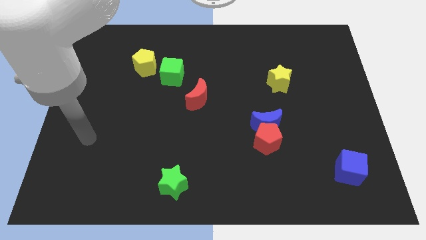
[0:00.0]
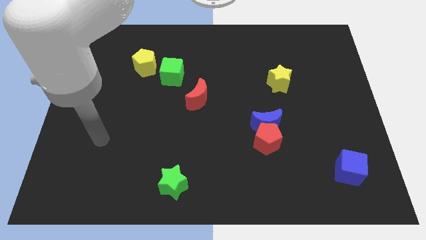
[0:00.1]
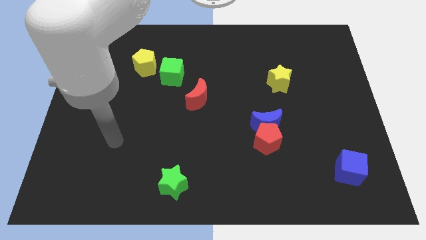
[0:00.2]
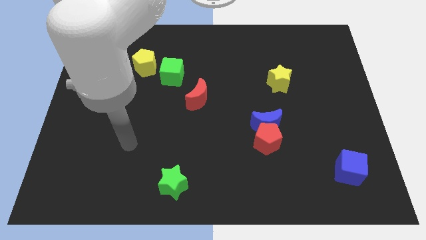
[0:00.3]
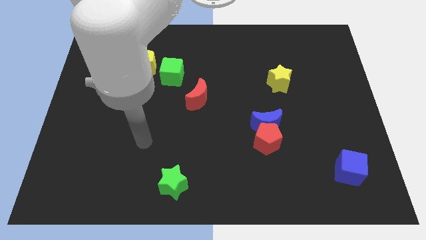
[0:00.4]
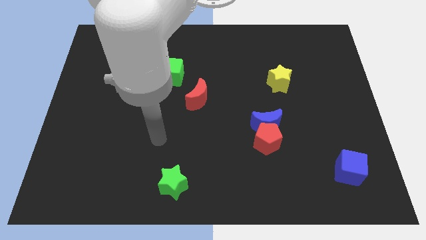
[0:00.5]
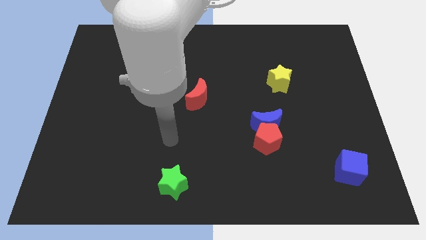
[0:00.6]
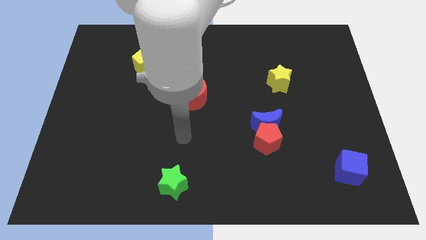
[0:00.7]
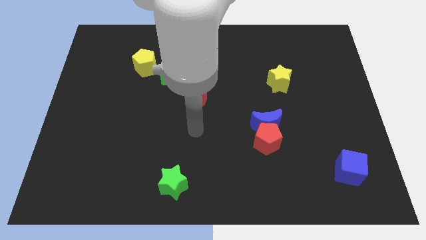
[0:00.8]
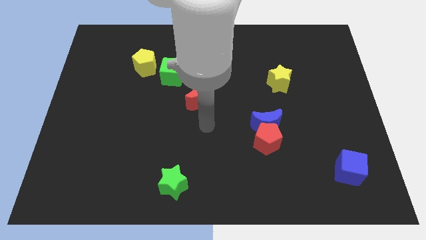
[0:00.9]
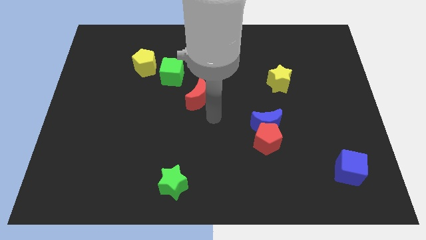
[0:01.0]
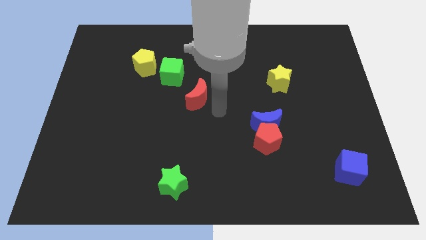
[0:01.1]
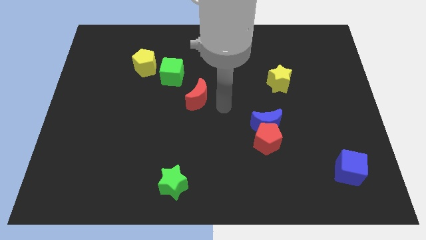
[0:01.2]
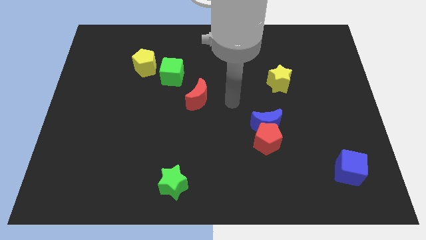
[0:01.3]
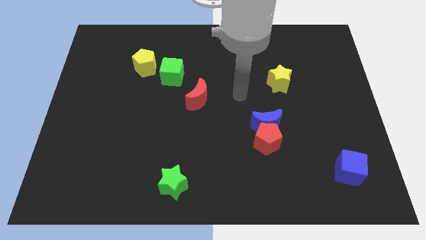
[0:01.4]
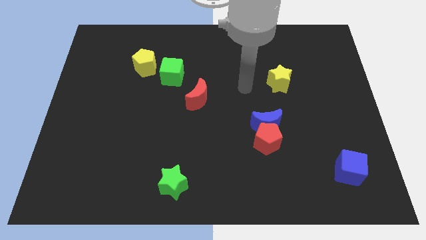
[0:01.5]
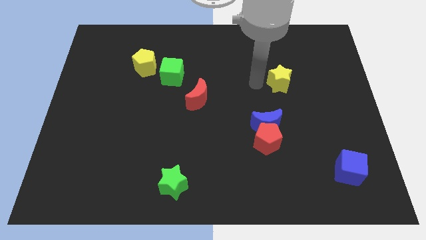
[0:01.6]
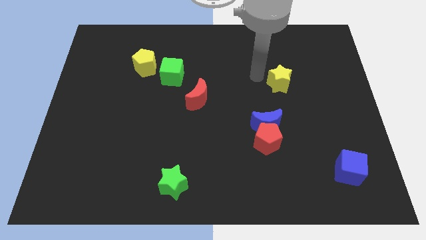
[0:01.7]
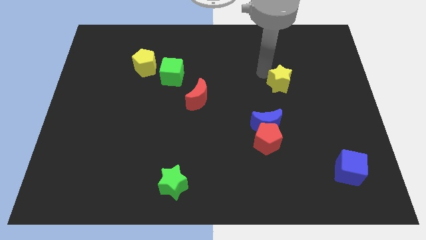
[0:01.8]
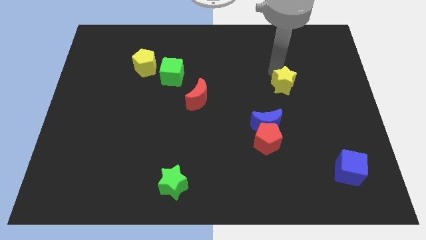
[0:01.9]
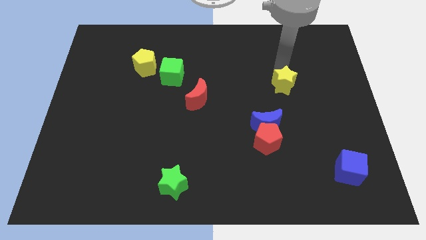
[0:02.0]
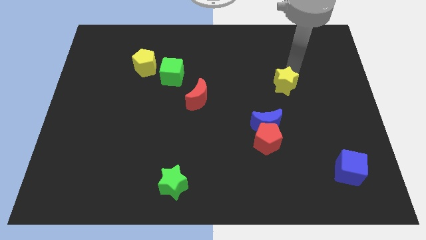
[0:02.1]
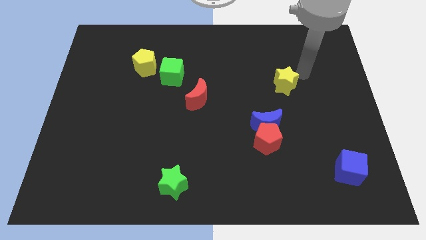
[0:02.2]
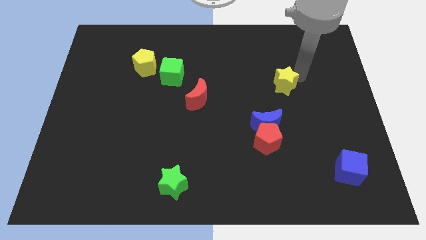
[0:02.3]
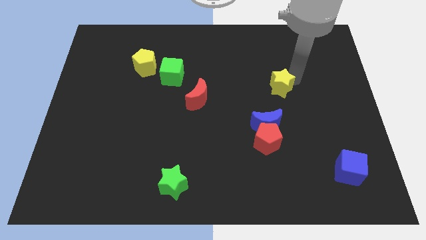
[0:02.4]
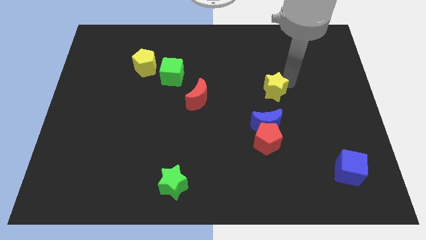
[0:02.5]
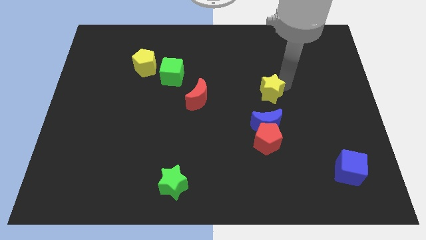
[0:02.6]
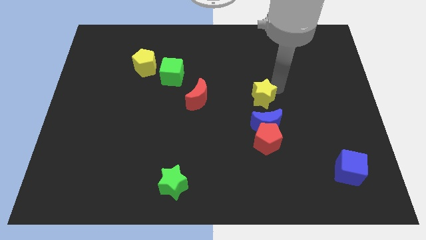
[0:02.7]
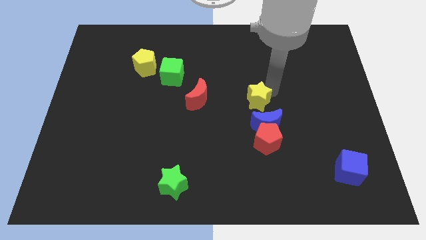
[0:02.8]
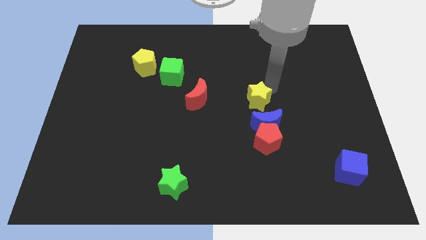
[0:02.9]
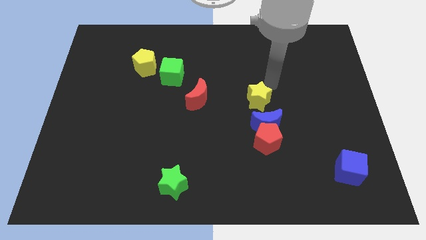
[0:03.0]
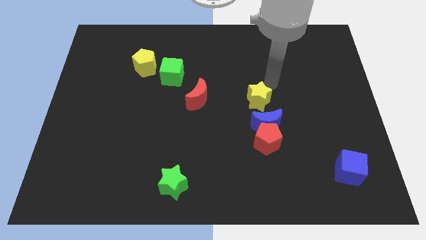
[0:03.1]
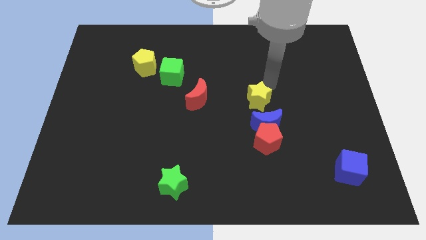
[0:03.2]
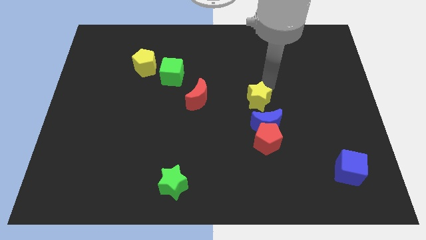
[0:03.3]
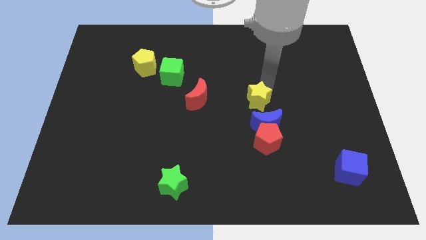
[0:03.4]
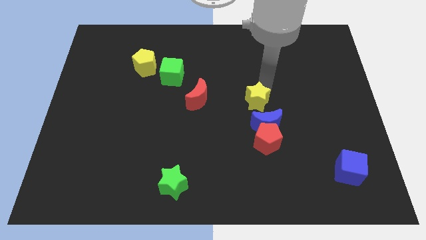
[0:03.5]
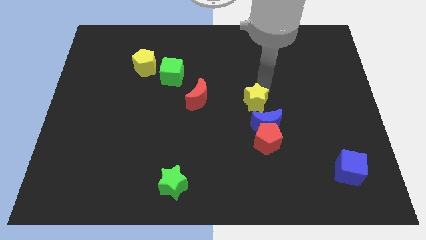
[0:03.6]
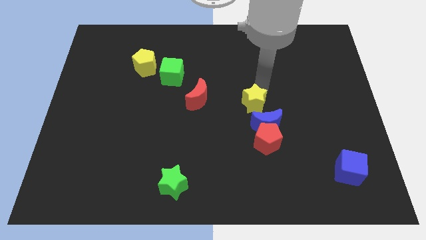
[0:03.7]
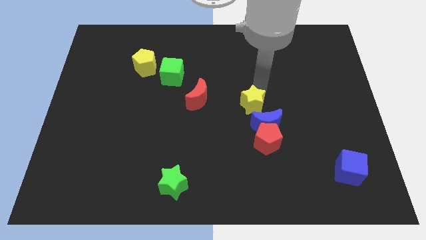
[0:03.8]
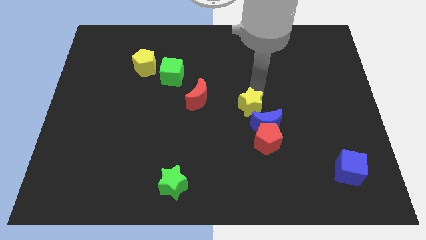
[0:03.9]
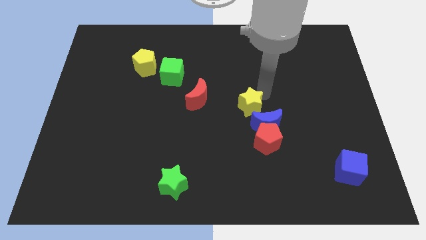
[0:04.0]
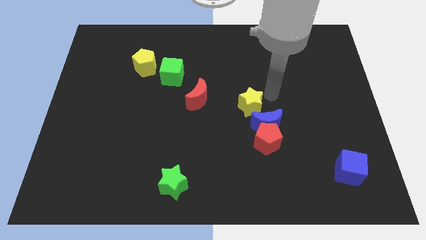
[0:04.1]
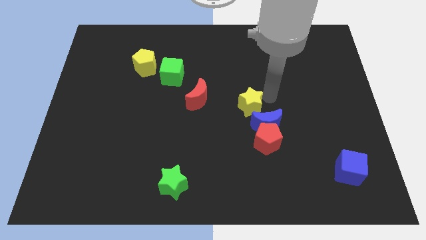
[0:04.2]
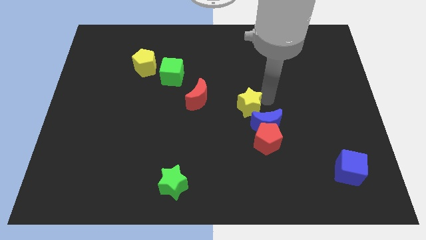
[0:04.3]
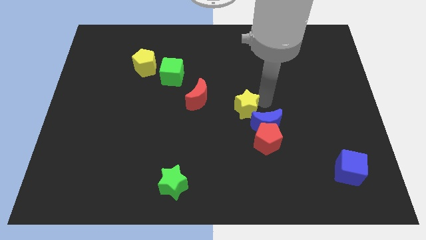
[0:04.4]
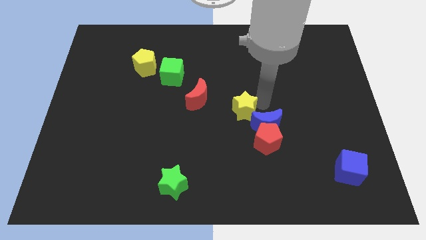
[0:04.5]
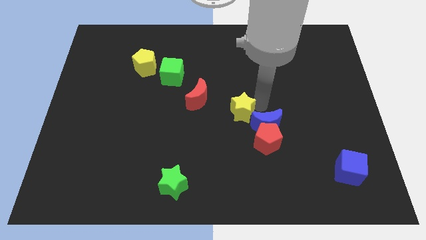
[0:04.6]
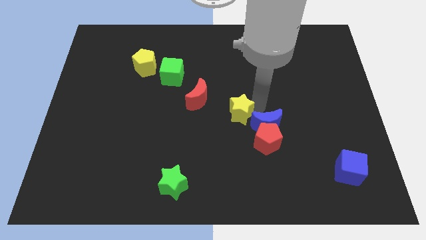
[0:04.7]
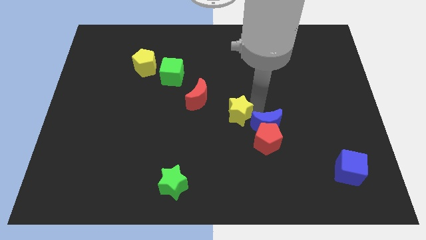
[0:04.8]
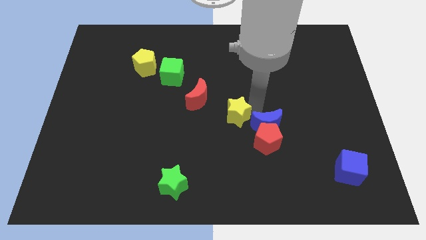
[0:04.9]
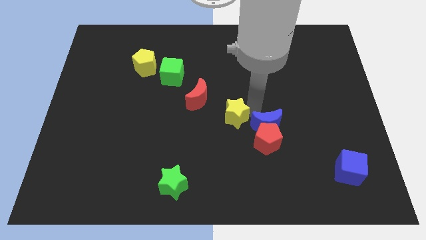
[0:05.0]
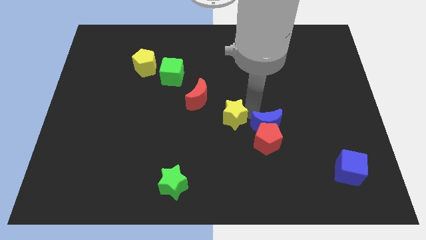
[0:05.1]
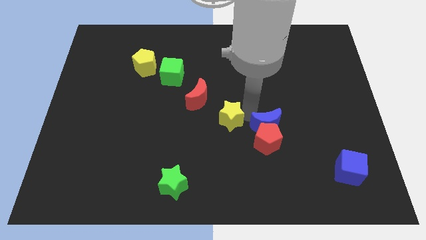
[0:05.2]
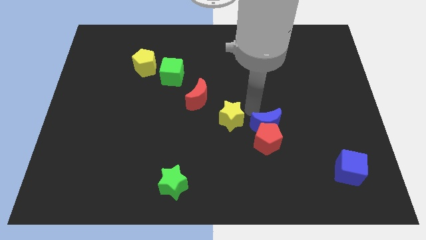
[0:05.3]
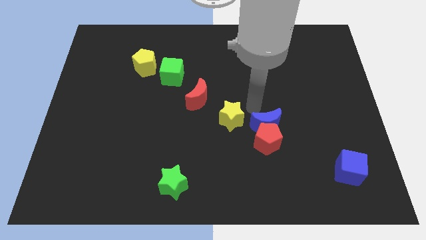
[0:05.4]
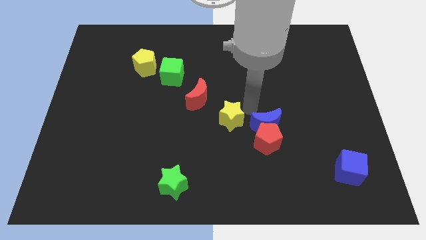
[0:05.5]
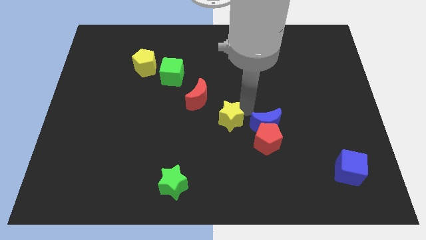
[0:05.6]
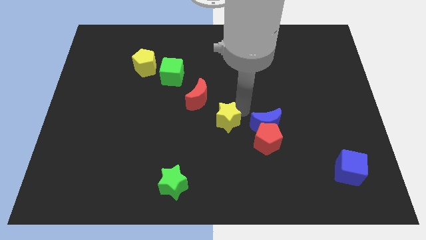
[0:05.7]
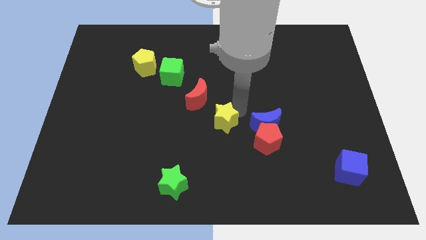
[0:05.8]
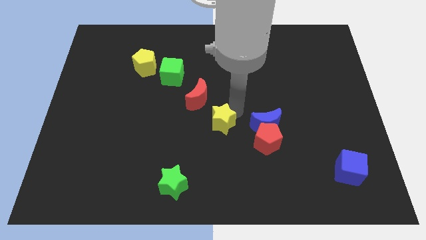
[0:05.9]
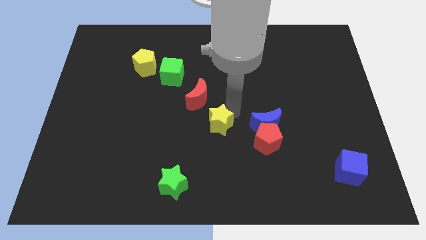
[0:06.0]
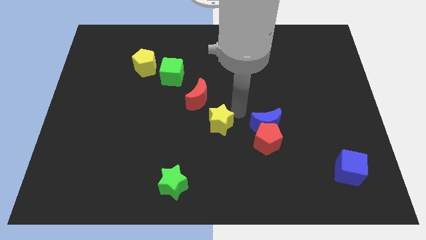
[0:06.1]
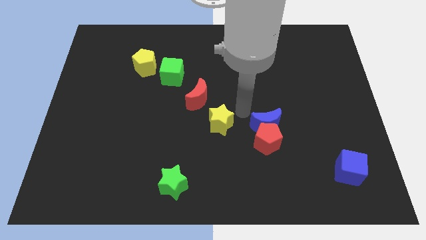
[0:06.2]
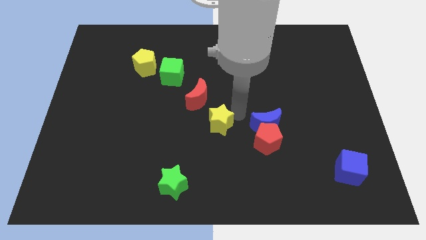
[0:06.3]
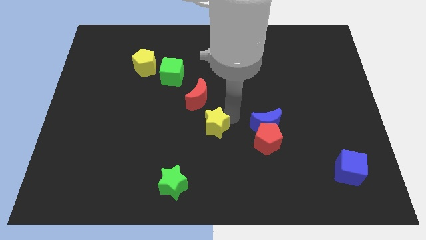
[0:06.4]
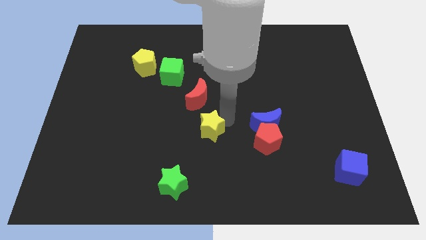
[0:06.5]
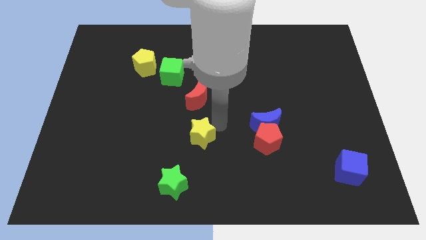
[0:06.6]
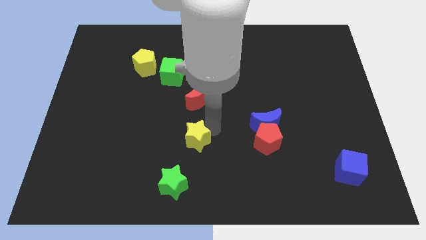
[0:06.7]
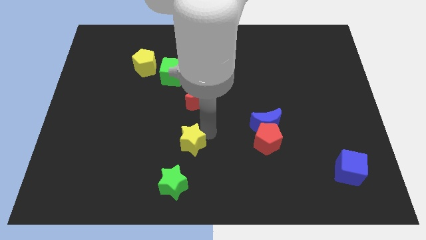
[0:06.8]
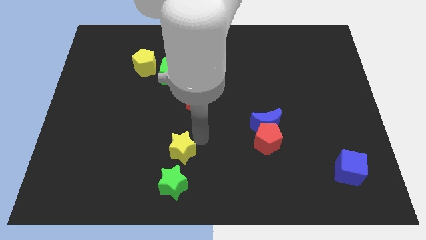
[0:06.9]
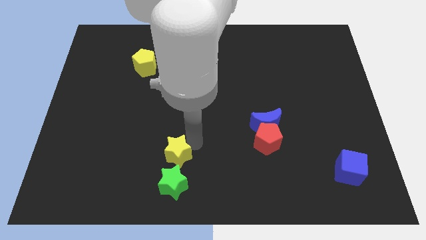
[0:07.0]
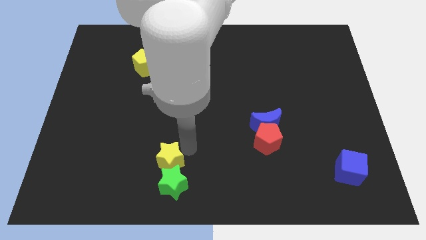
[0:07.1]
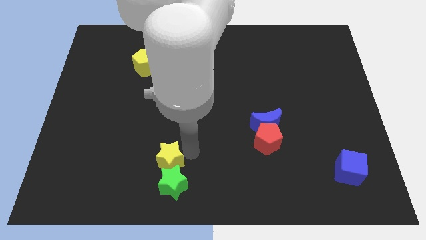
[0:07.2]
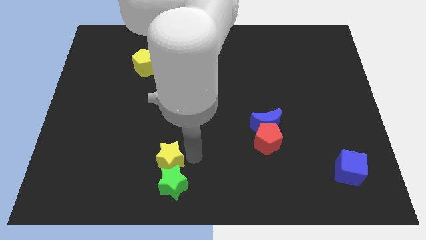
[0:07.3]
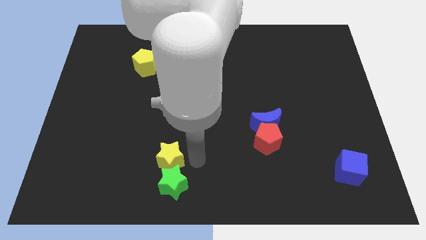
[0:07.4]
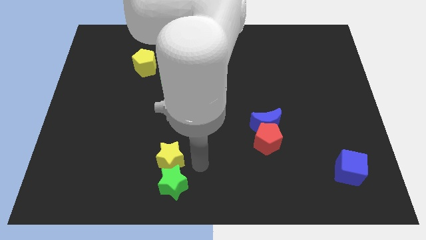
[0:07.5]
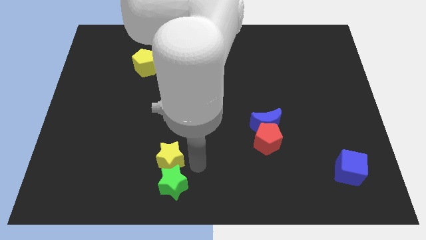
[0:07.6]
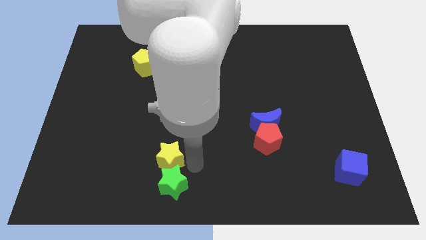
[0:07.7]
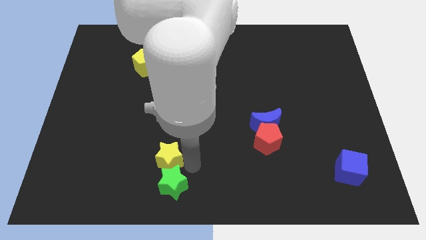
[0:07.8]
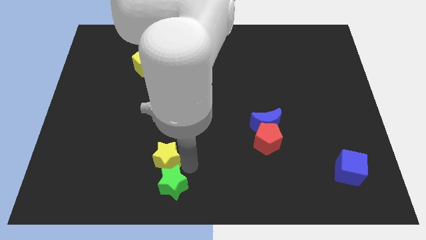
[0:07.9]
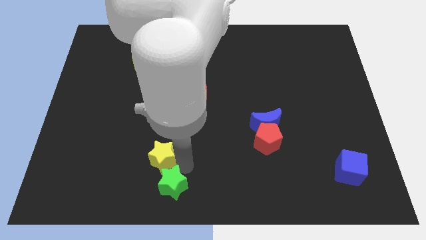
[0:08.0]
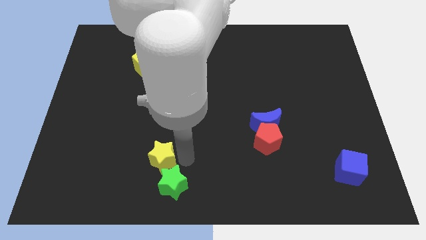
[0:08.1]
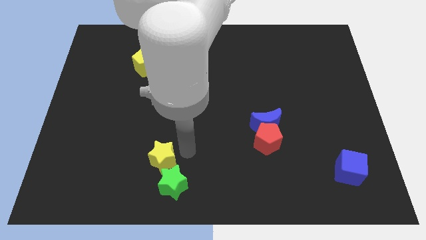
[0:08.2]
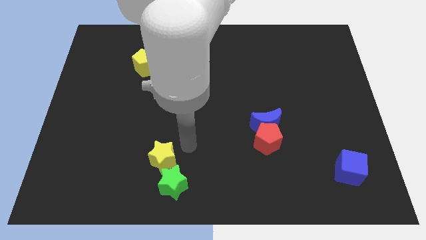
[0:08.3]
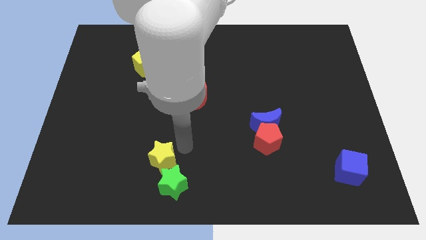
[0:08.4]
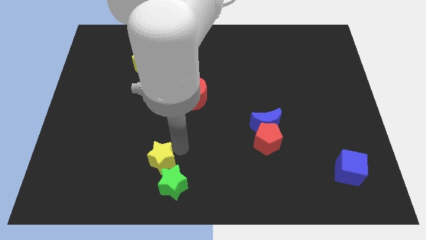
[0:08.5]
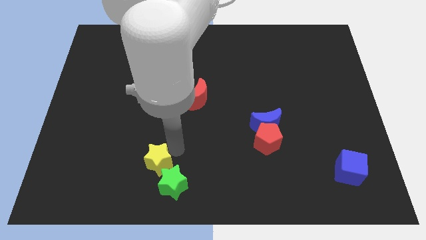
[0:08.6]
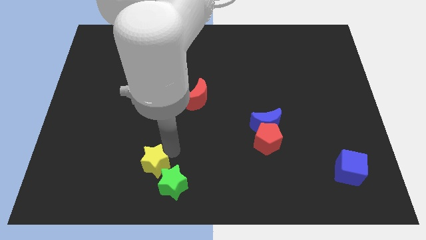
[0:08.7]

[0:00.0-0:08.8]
push the yellow star just left of the green star
